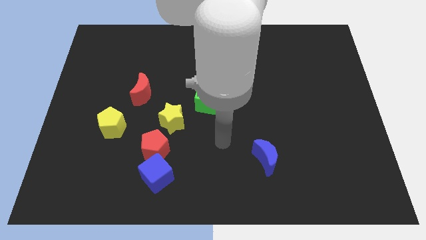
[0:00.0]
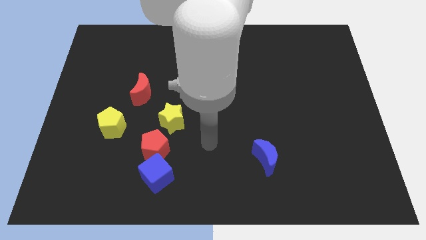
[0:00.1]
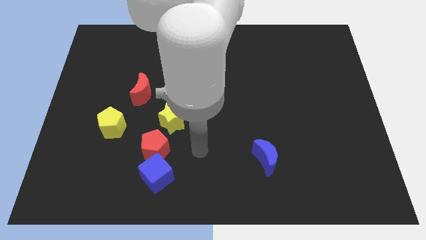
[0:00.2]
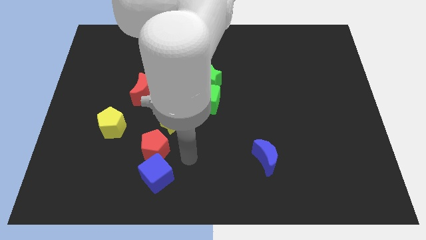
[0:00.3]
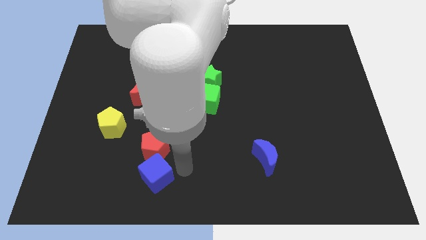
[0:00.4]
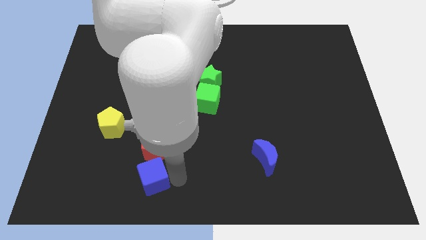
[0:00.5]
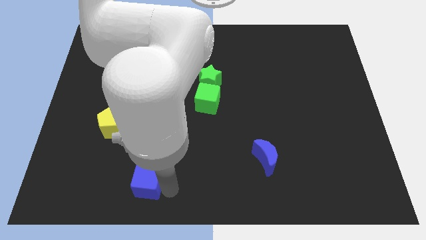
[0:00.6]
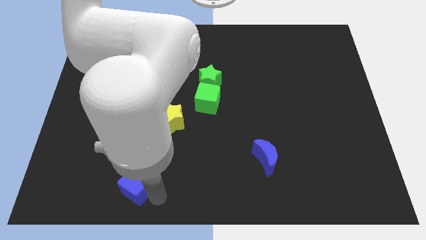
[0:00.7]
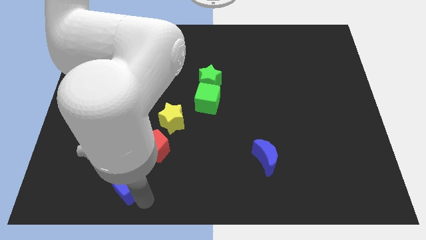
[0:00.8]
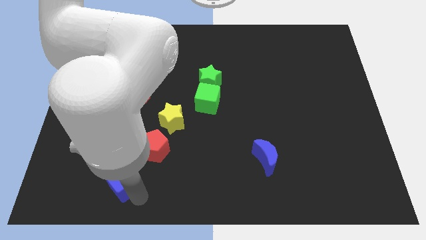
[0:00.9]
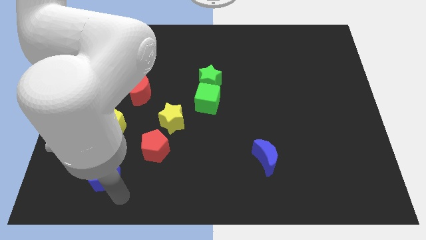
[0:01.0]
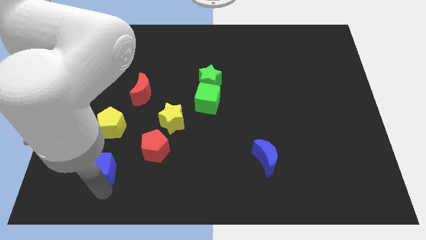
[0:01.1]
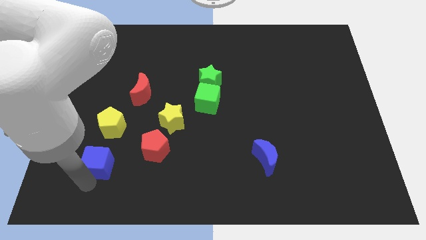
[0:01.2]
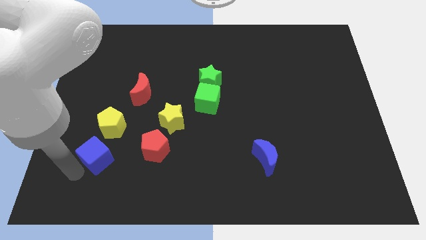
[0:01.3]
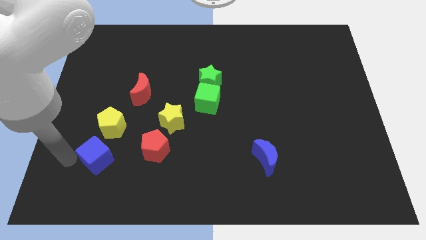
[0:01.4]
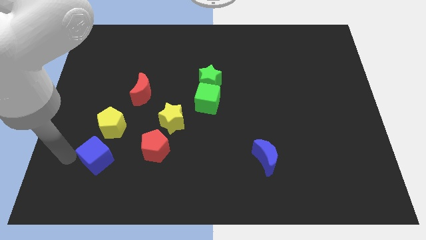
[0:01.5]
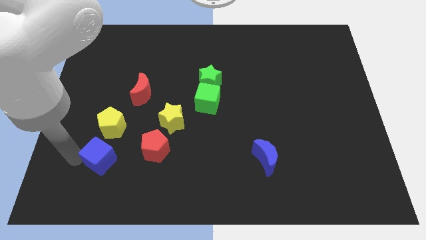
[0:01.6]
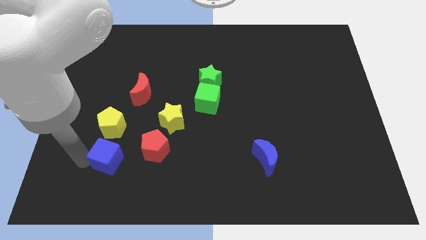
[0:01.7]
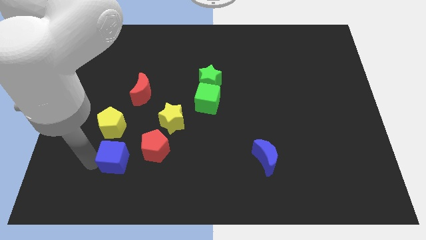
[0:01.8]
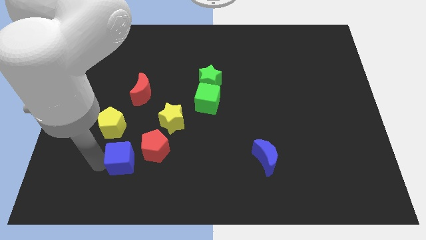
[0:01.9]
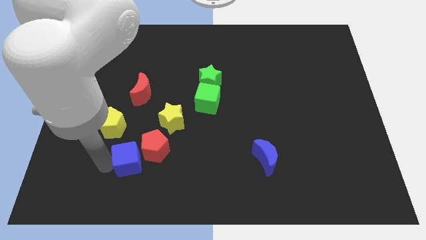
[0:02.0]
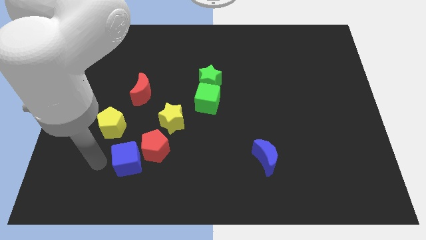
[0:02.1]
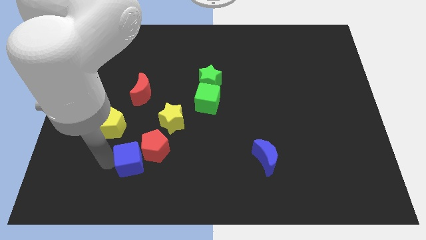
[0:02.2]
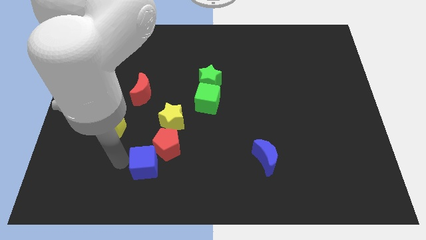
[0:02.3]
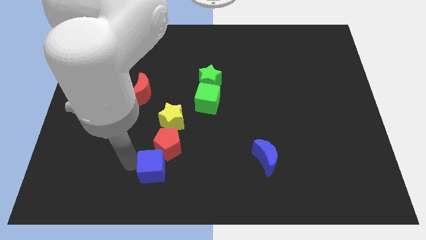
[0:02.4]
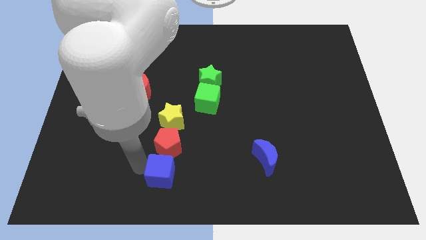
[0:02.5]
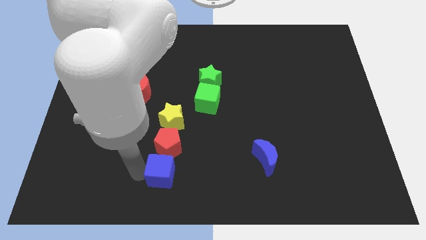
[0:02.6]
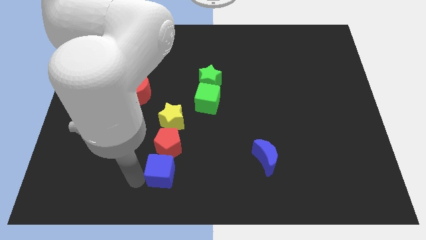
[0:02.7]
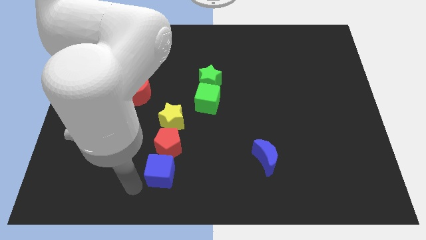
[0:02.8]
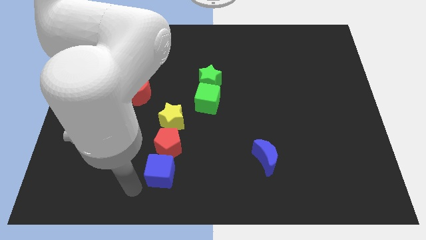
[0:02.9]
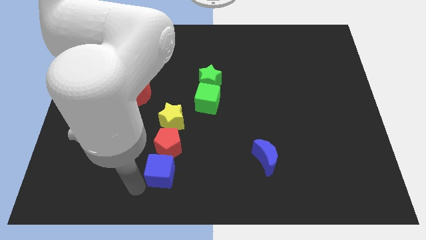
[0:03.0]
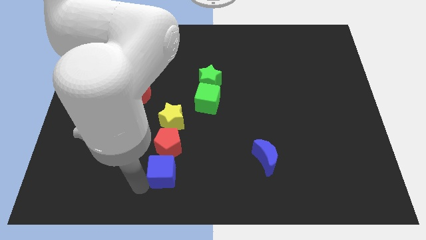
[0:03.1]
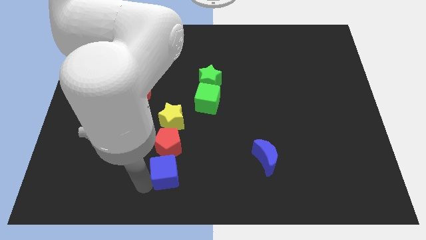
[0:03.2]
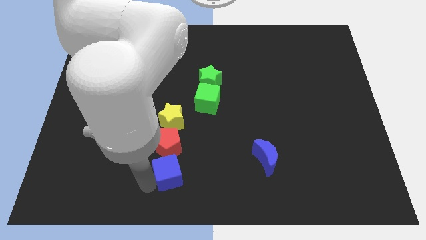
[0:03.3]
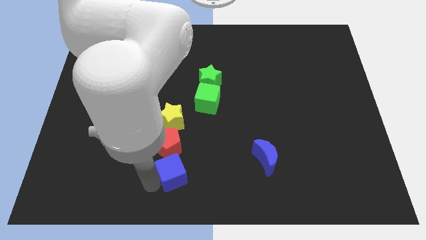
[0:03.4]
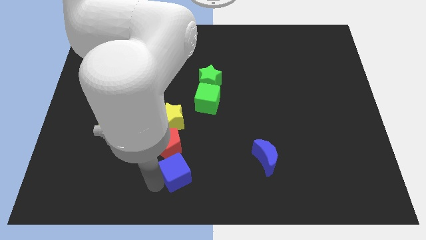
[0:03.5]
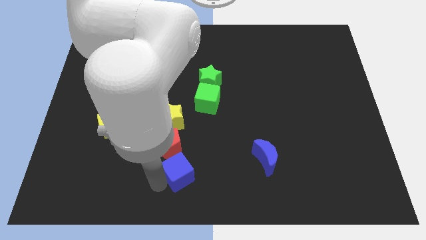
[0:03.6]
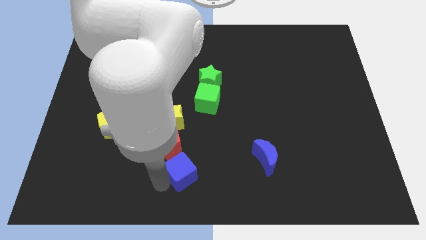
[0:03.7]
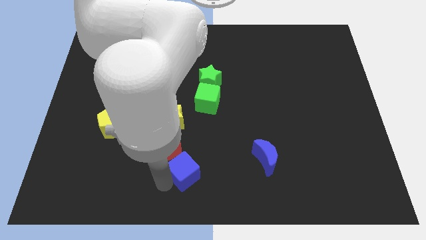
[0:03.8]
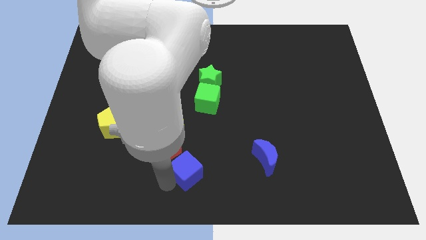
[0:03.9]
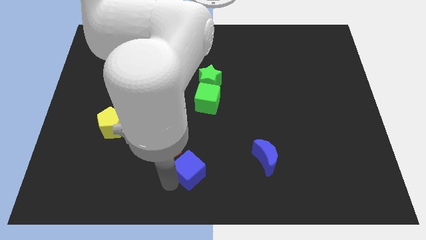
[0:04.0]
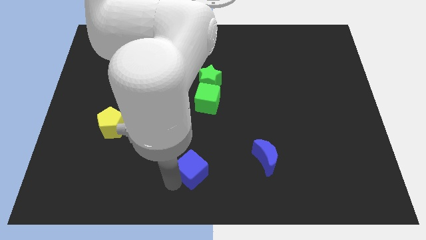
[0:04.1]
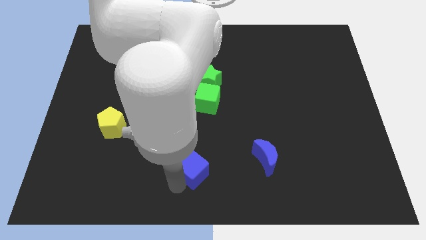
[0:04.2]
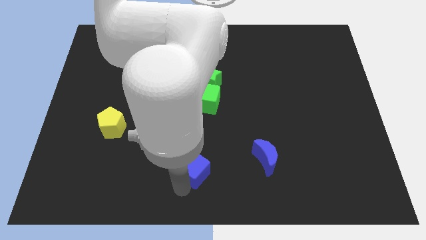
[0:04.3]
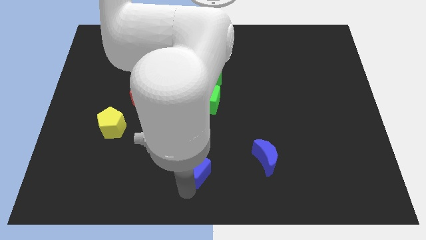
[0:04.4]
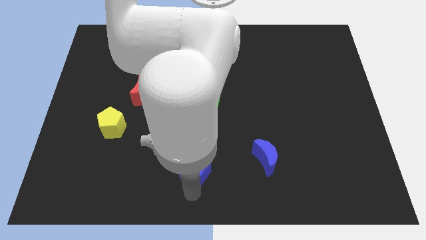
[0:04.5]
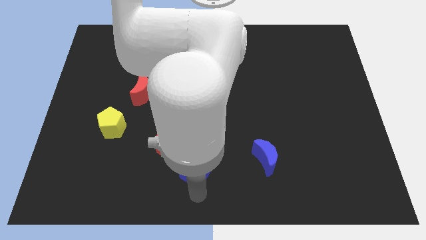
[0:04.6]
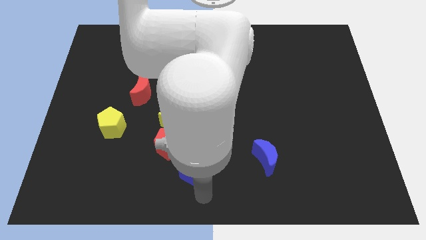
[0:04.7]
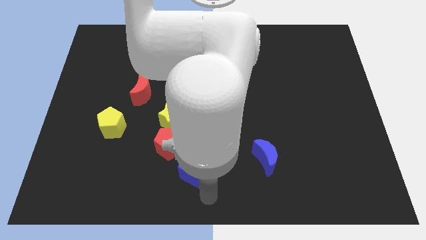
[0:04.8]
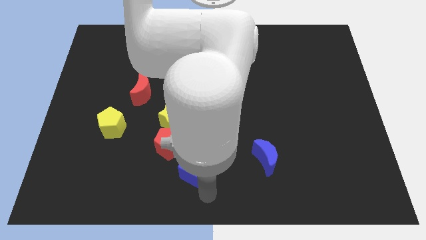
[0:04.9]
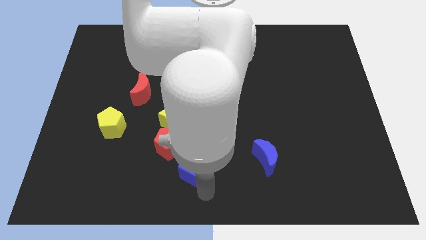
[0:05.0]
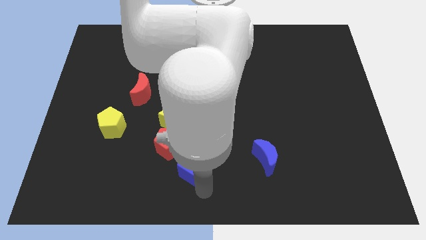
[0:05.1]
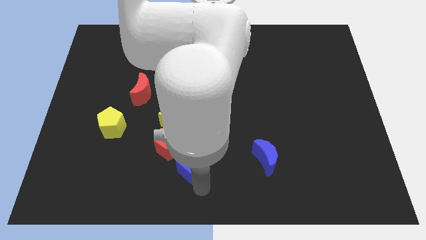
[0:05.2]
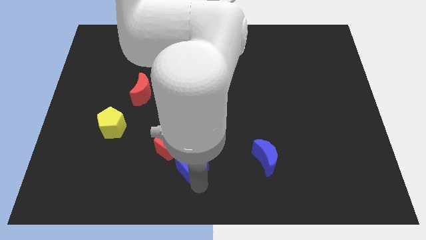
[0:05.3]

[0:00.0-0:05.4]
slide the blue cube to the right side of the red pentagon

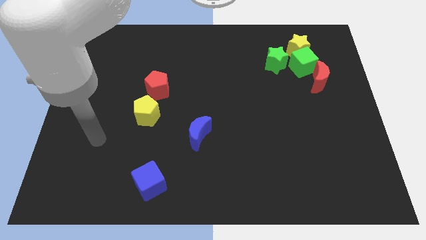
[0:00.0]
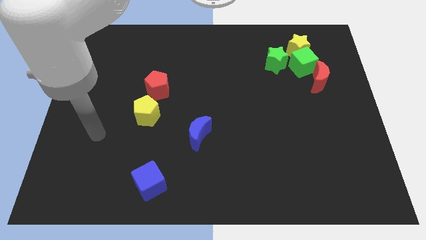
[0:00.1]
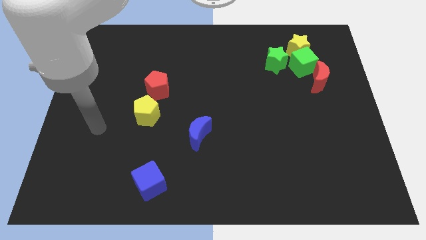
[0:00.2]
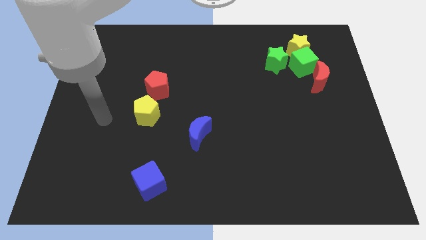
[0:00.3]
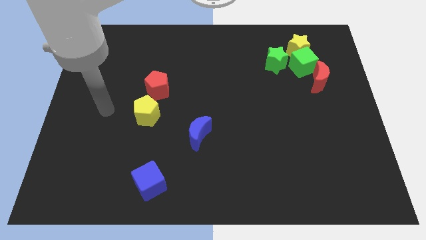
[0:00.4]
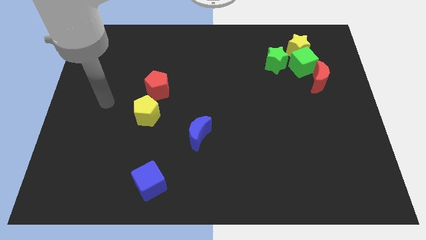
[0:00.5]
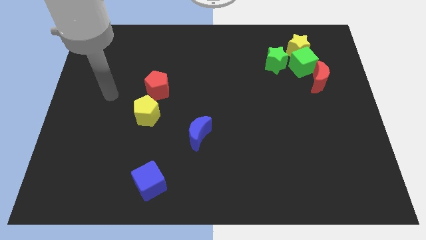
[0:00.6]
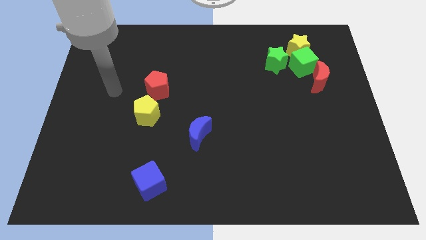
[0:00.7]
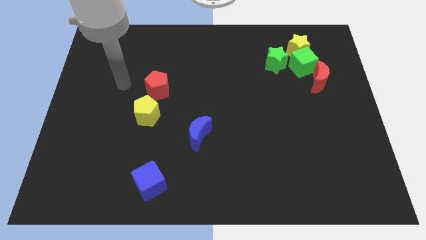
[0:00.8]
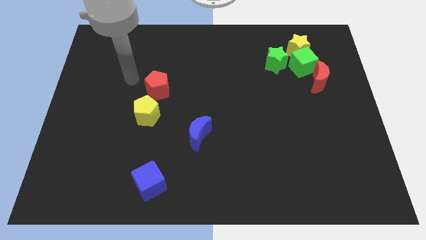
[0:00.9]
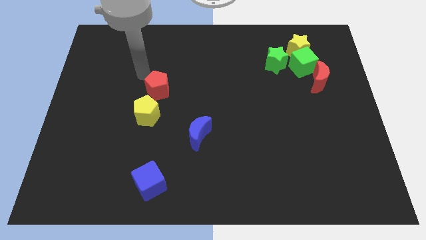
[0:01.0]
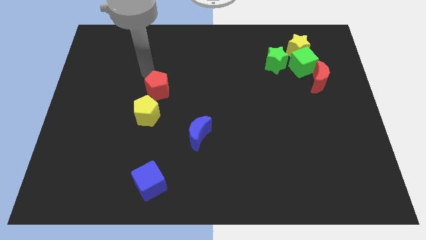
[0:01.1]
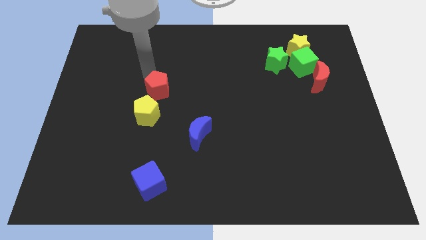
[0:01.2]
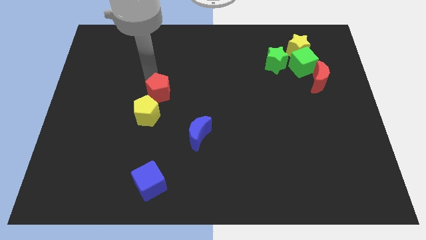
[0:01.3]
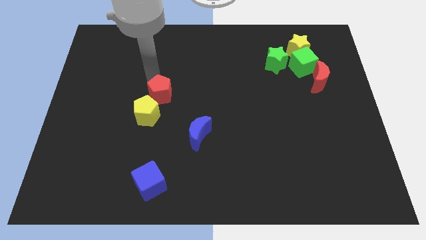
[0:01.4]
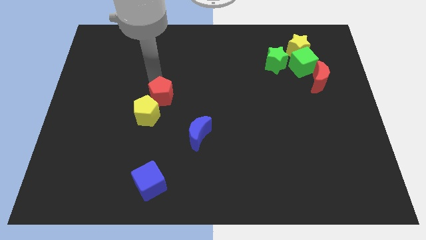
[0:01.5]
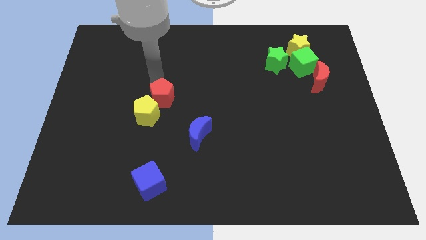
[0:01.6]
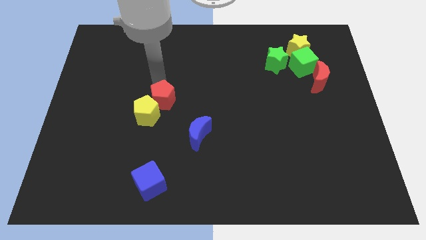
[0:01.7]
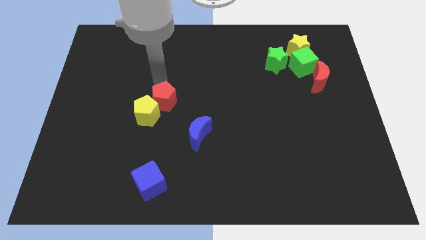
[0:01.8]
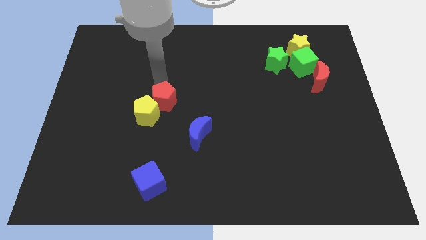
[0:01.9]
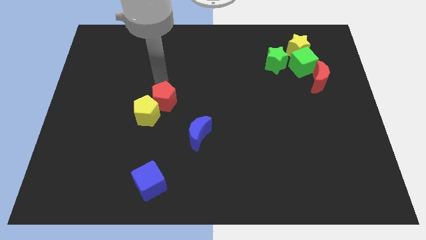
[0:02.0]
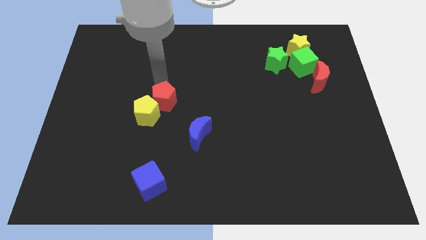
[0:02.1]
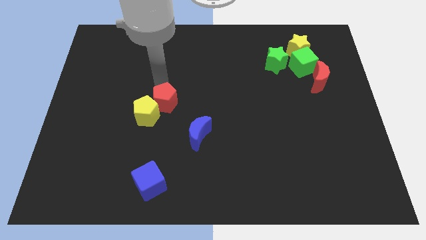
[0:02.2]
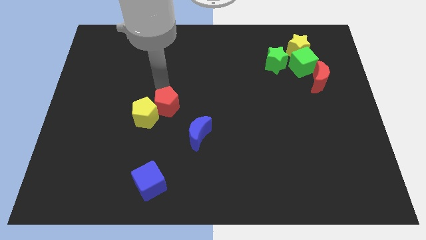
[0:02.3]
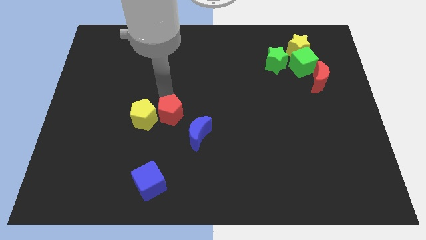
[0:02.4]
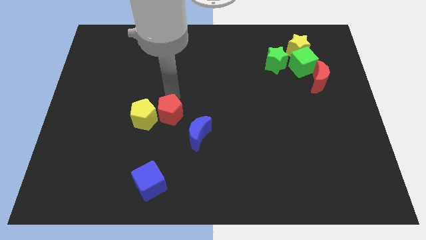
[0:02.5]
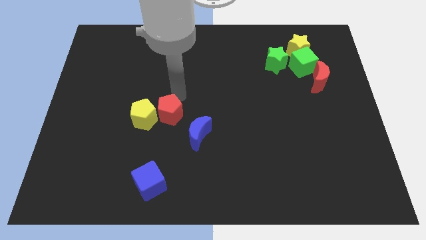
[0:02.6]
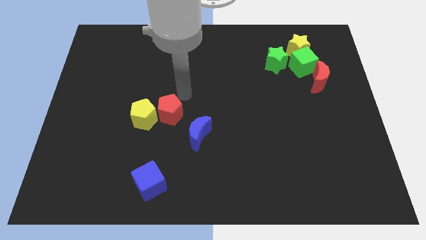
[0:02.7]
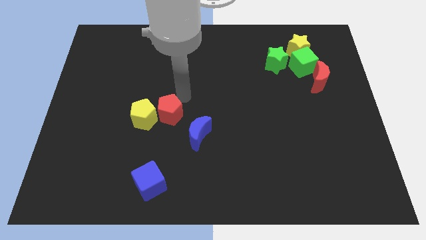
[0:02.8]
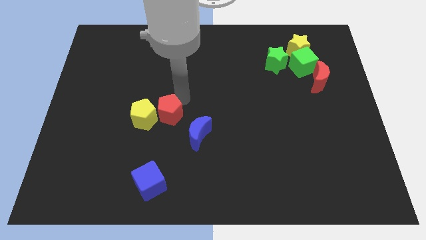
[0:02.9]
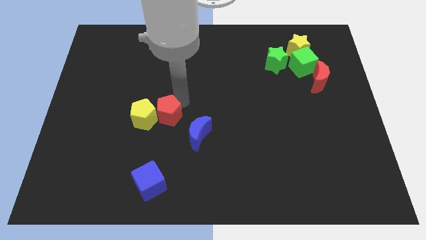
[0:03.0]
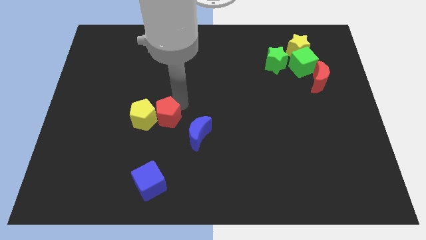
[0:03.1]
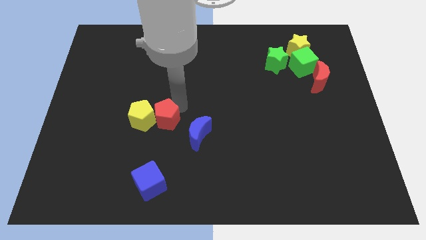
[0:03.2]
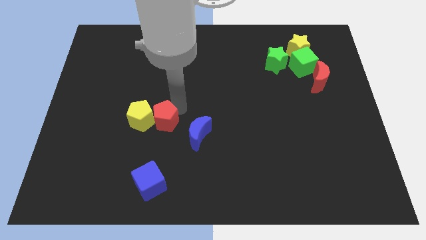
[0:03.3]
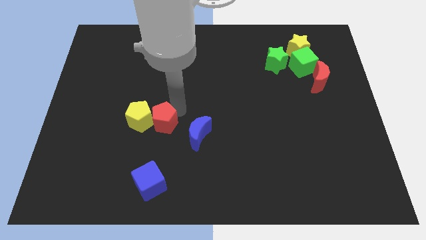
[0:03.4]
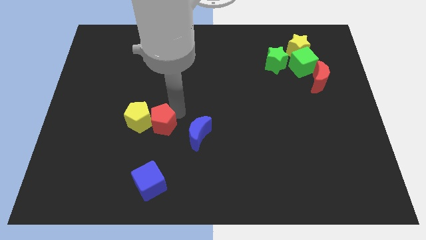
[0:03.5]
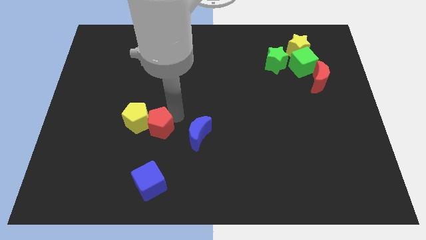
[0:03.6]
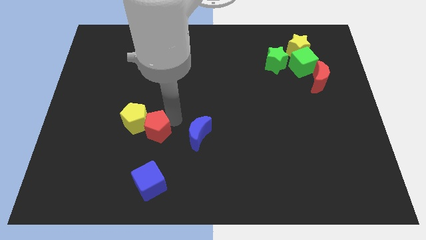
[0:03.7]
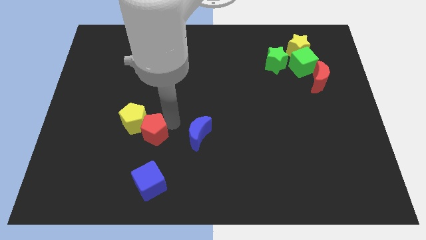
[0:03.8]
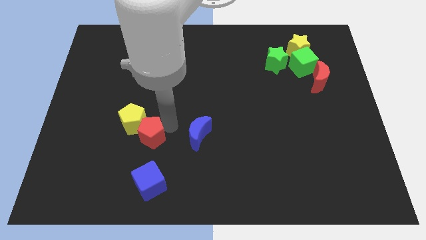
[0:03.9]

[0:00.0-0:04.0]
put the red pentagon to the bottom side of the yellow pentagon
